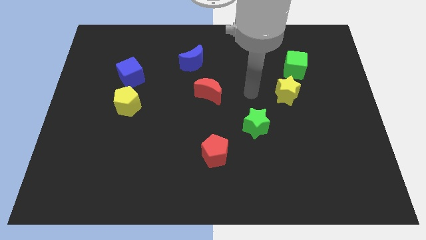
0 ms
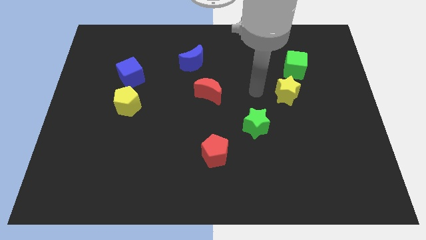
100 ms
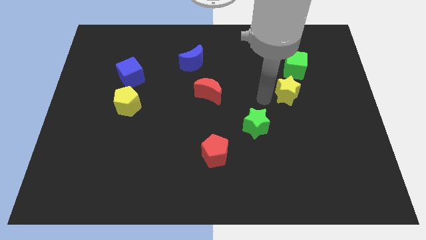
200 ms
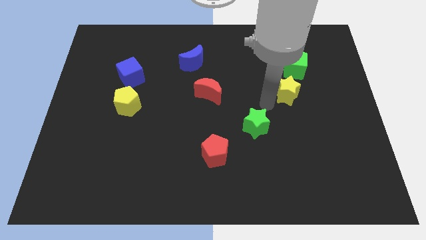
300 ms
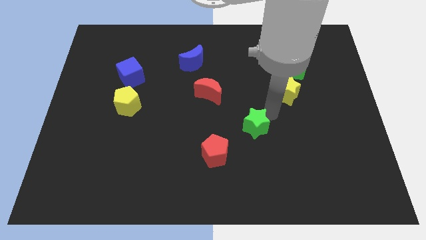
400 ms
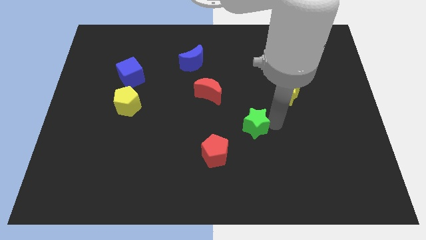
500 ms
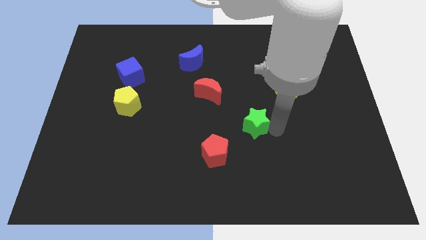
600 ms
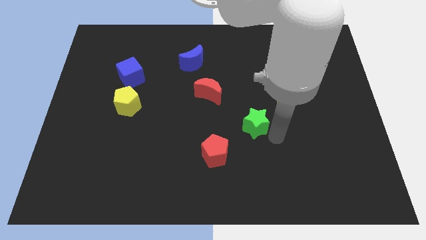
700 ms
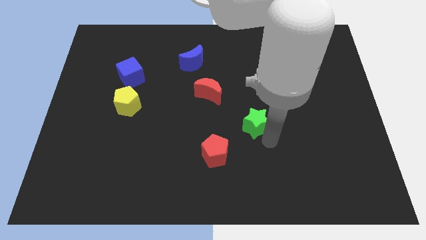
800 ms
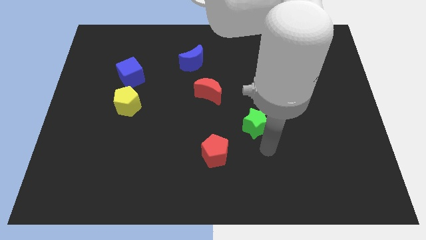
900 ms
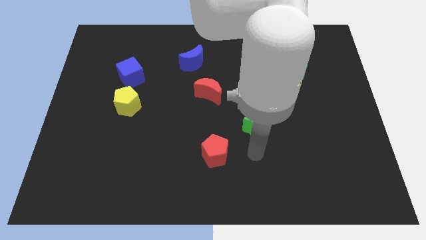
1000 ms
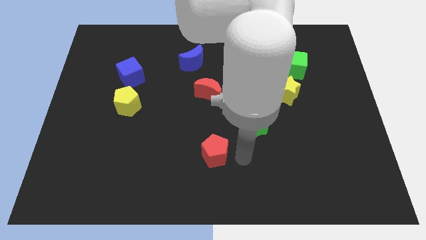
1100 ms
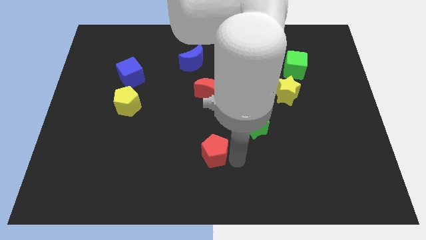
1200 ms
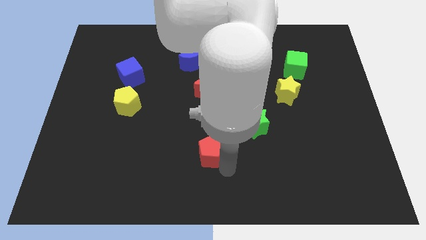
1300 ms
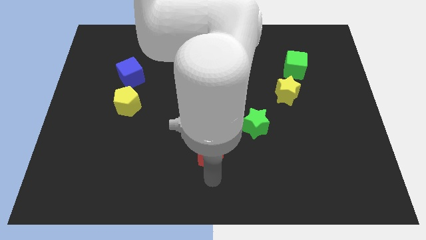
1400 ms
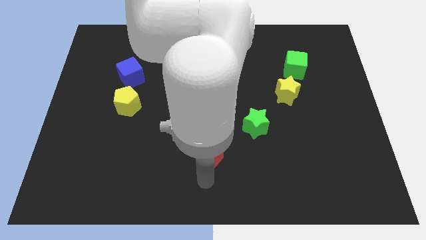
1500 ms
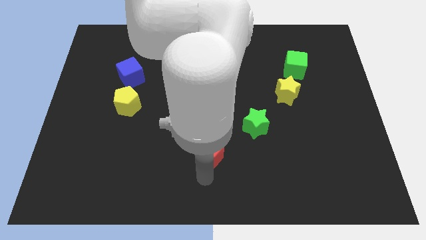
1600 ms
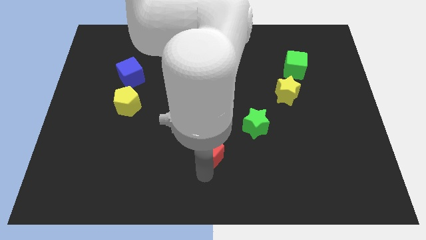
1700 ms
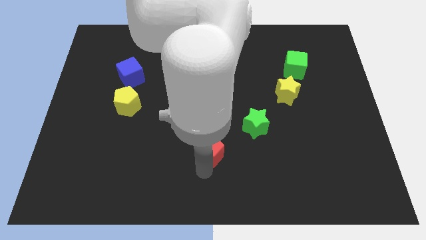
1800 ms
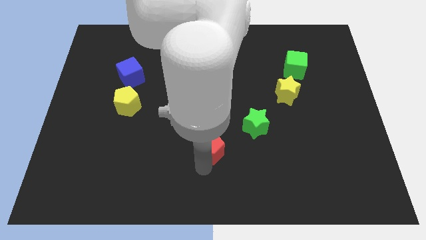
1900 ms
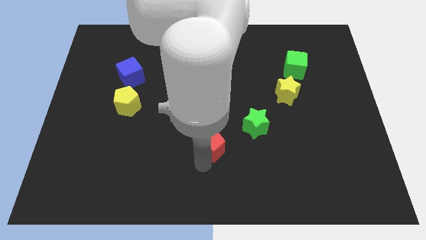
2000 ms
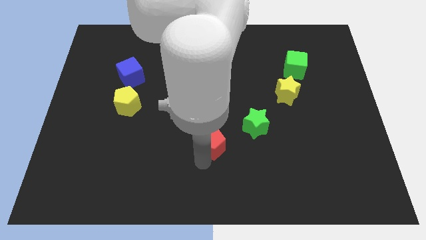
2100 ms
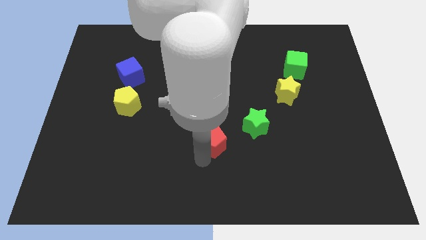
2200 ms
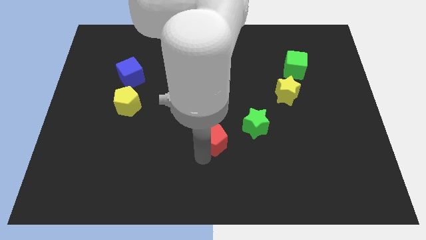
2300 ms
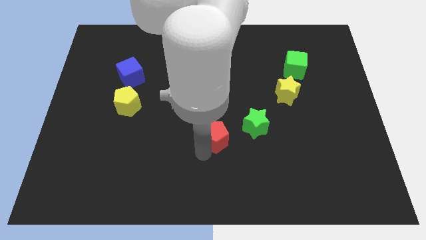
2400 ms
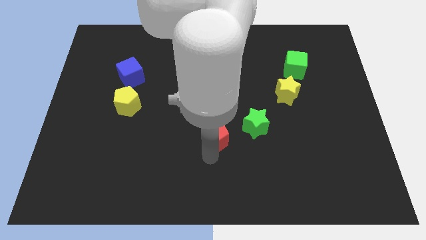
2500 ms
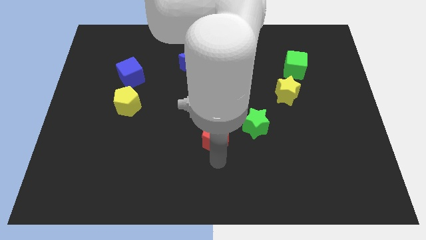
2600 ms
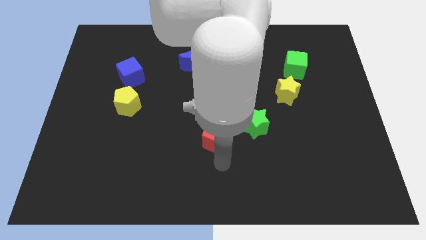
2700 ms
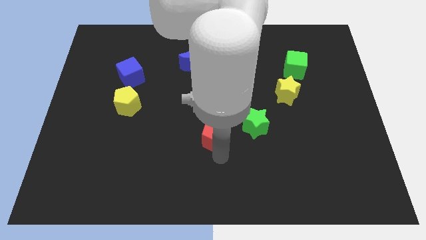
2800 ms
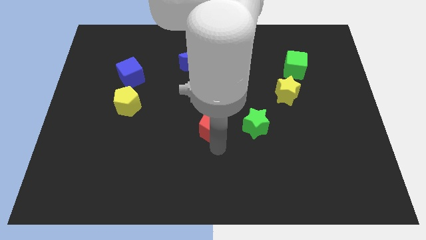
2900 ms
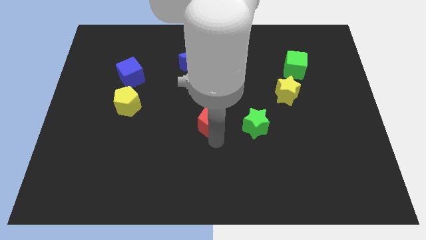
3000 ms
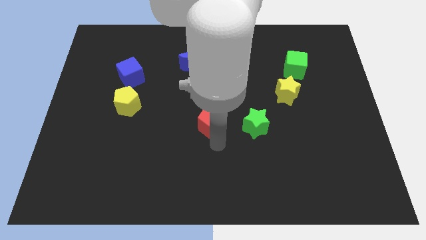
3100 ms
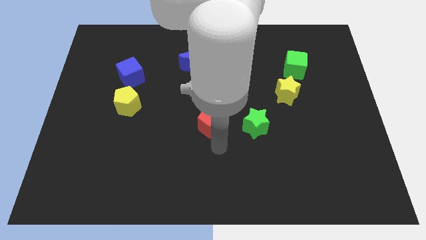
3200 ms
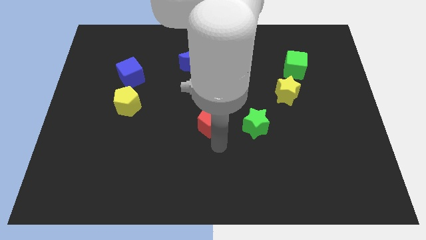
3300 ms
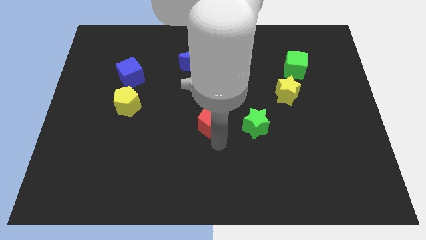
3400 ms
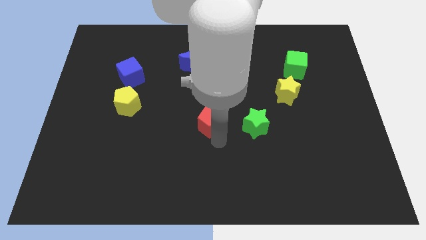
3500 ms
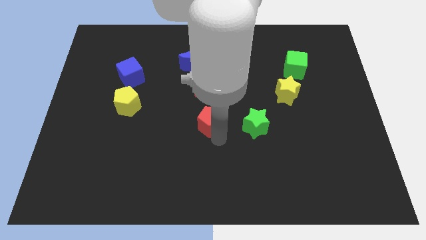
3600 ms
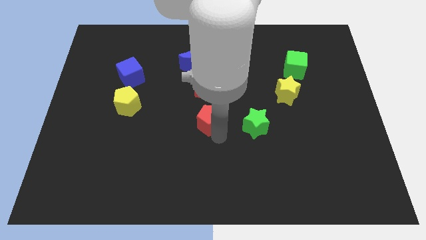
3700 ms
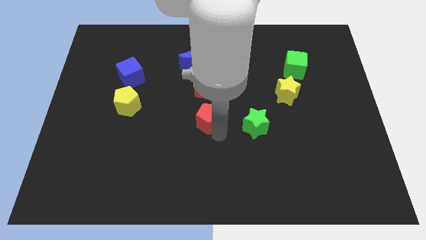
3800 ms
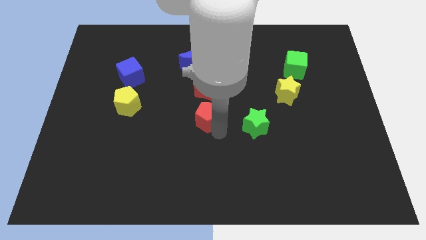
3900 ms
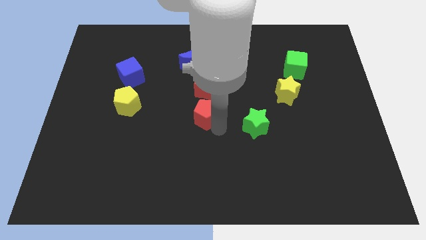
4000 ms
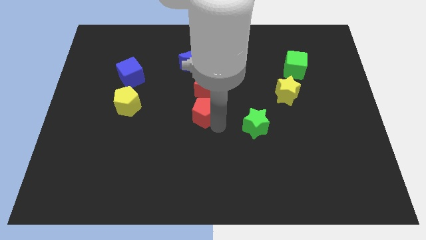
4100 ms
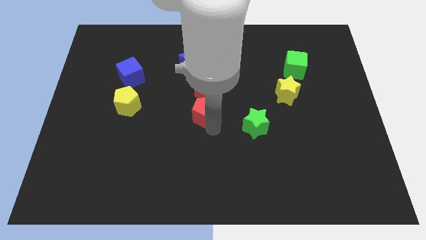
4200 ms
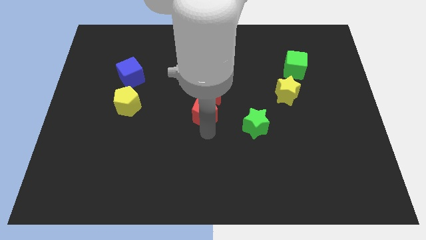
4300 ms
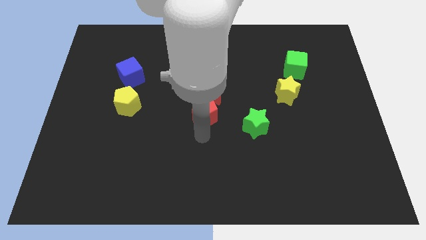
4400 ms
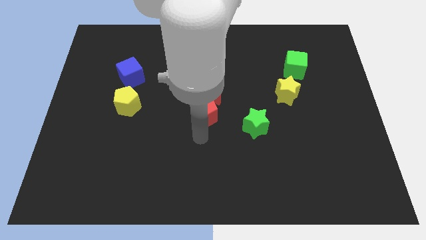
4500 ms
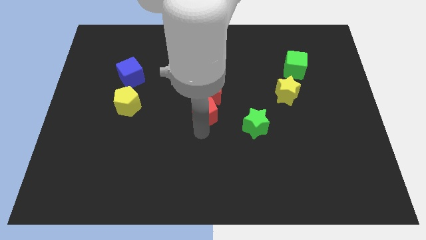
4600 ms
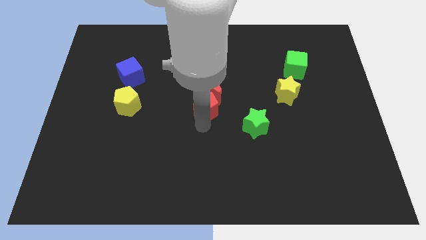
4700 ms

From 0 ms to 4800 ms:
move the red pentagon towards the red moon

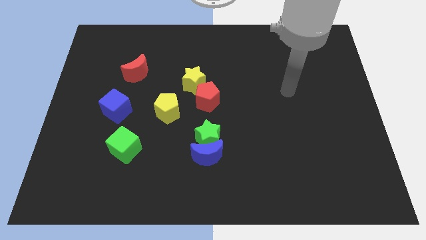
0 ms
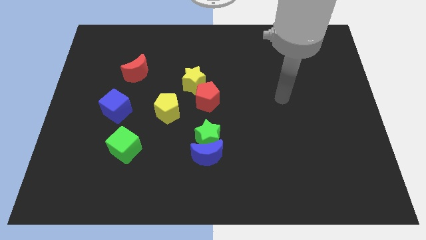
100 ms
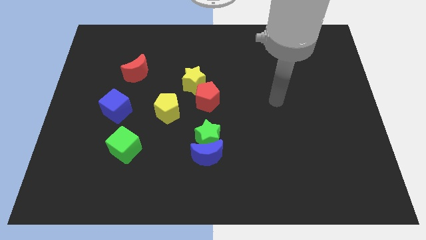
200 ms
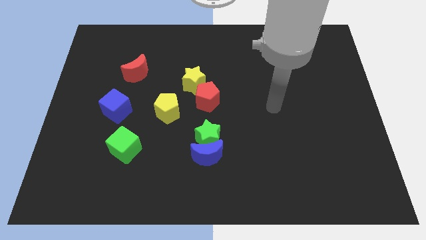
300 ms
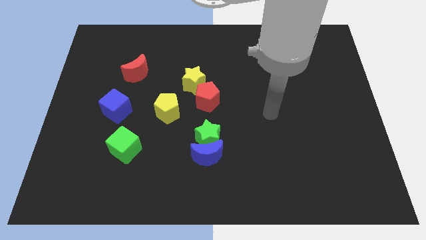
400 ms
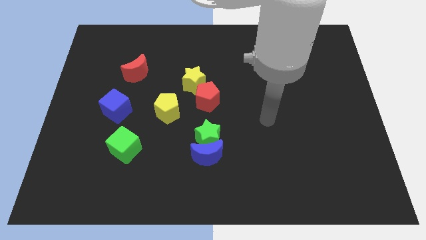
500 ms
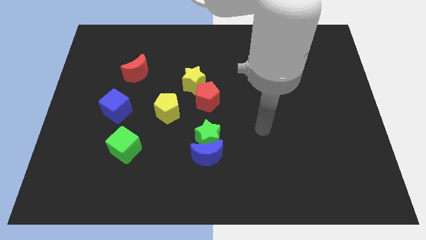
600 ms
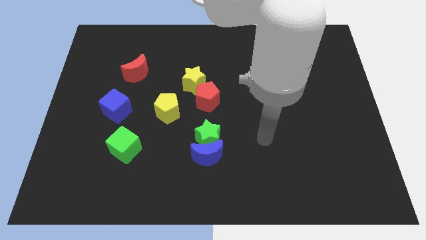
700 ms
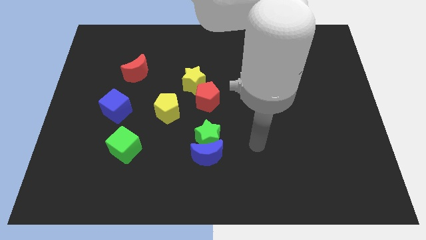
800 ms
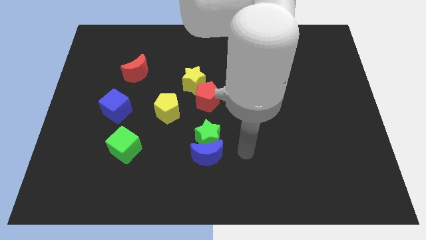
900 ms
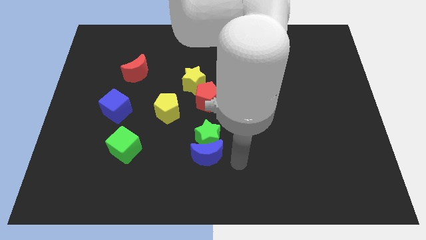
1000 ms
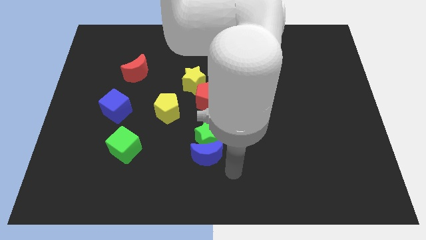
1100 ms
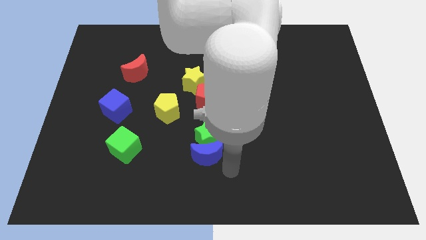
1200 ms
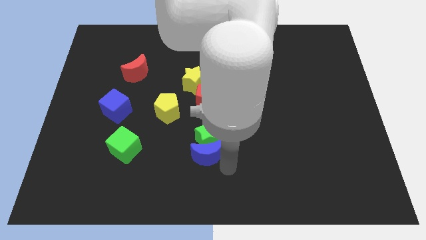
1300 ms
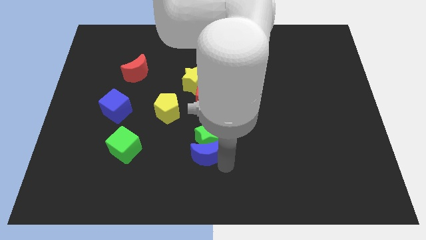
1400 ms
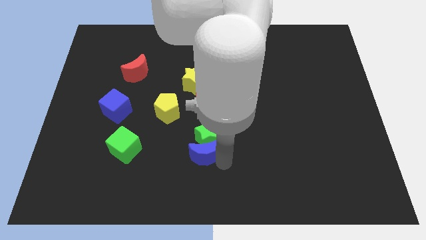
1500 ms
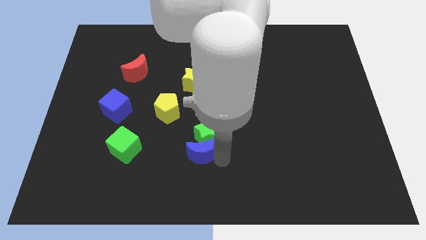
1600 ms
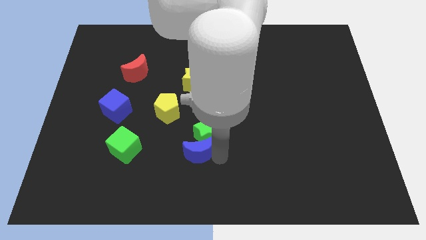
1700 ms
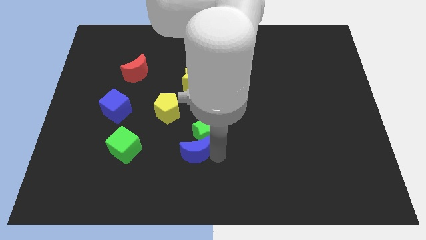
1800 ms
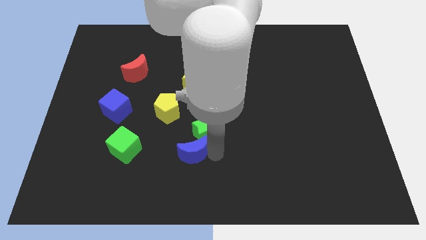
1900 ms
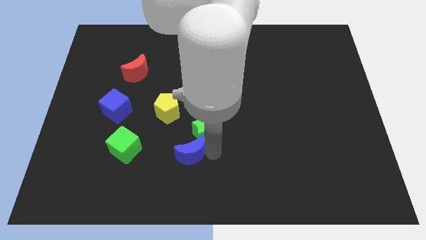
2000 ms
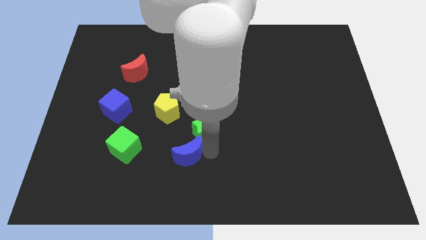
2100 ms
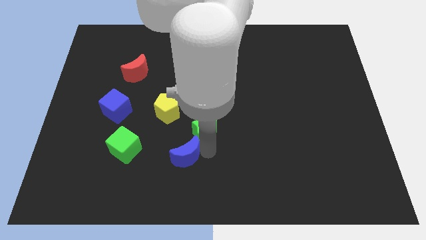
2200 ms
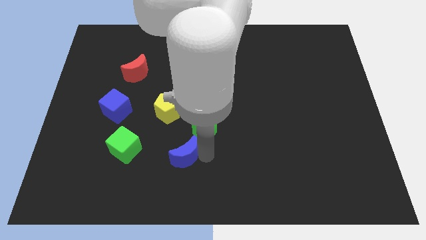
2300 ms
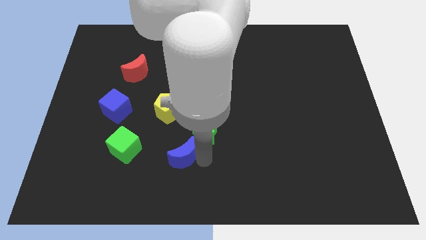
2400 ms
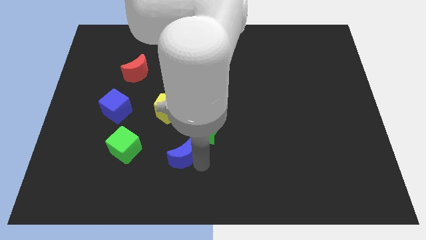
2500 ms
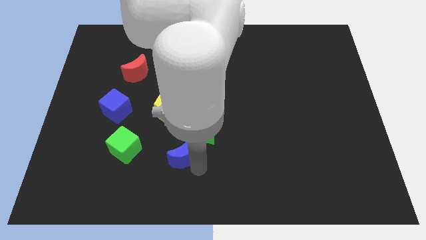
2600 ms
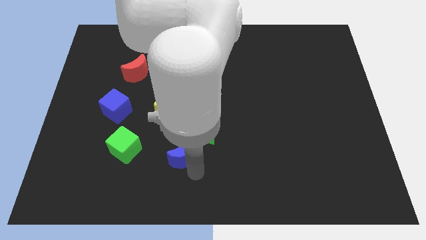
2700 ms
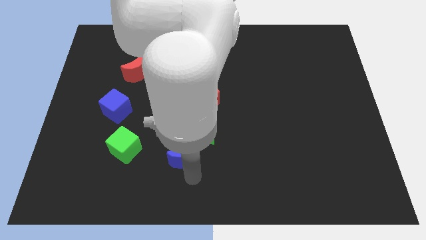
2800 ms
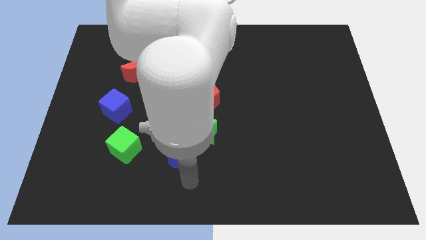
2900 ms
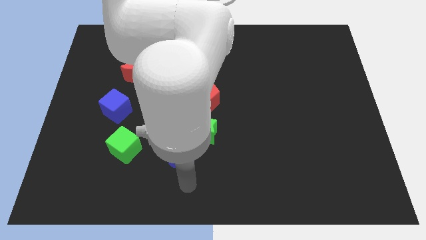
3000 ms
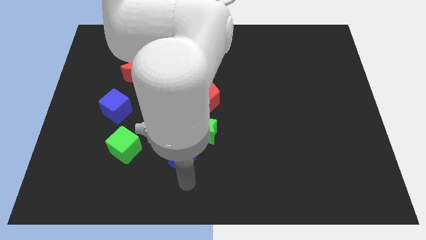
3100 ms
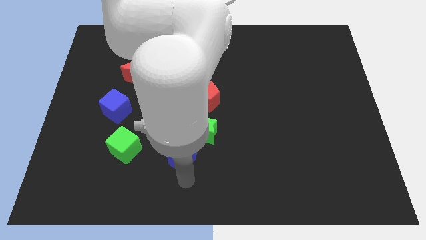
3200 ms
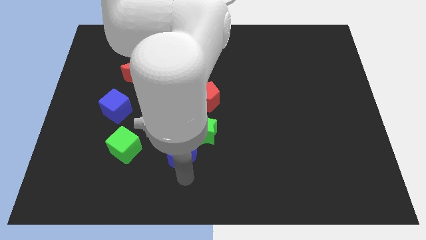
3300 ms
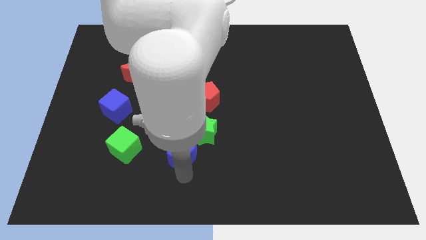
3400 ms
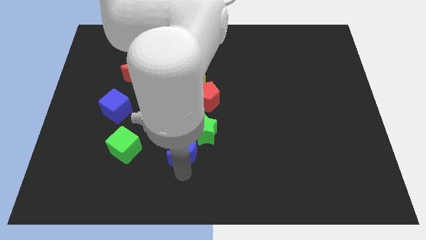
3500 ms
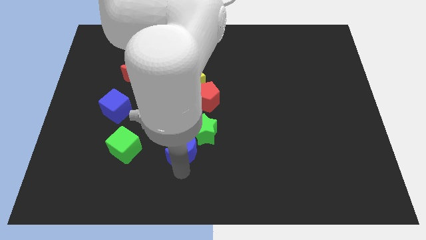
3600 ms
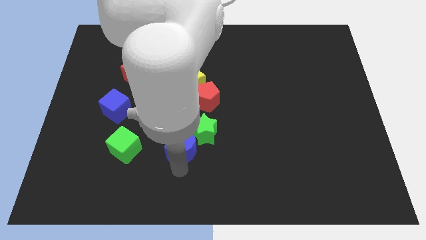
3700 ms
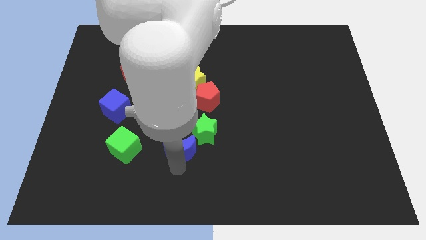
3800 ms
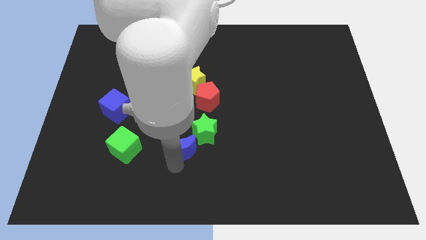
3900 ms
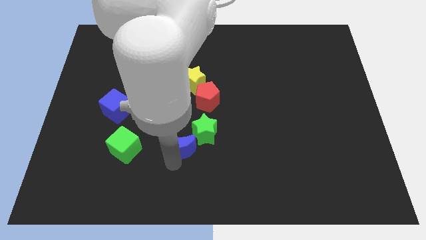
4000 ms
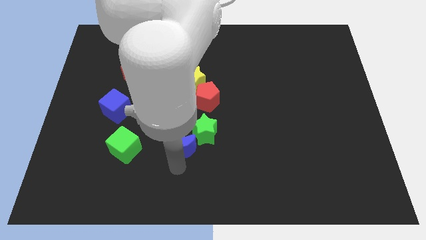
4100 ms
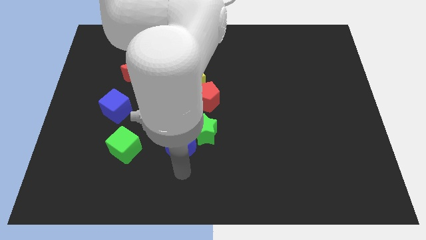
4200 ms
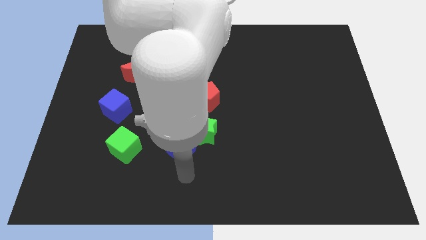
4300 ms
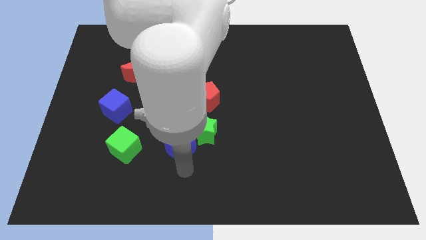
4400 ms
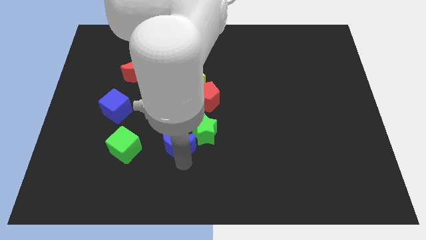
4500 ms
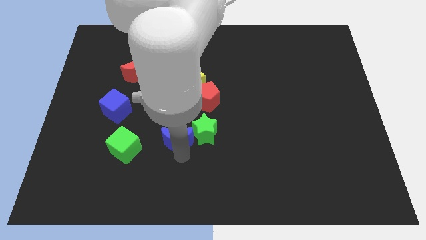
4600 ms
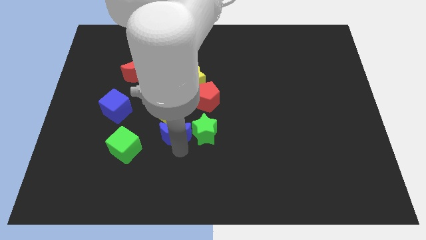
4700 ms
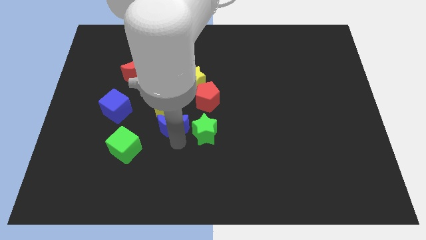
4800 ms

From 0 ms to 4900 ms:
move the blue moon to the yellow pentagon
